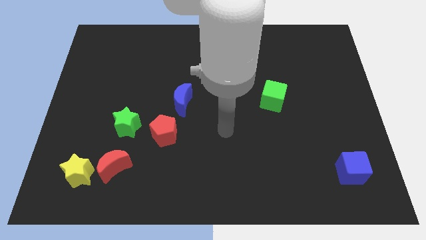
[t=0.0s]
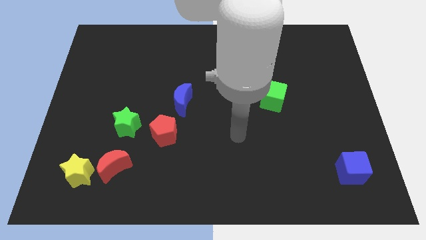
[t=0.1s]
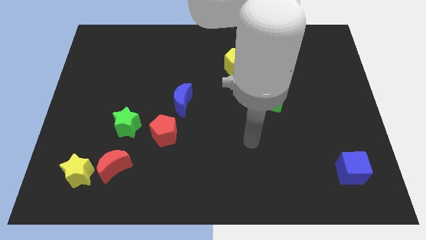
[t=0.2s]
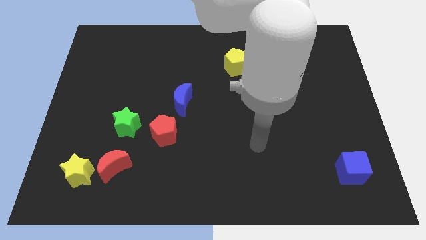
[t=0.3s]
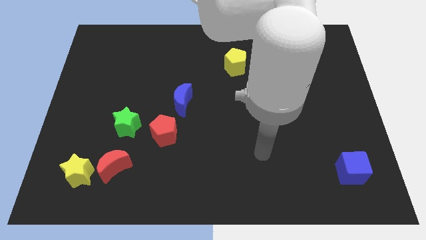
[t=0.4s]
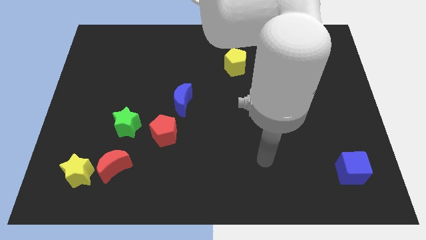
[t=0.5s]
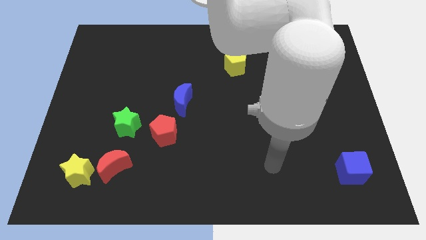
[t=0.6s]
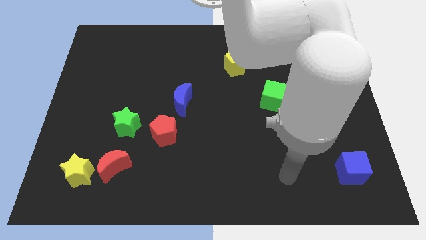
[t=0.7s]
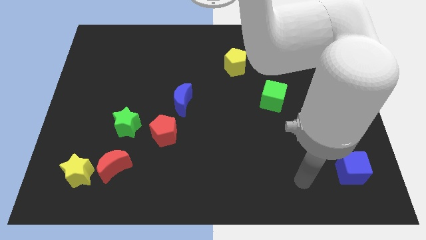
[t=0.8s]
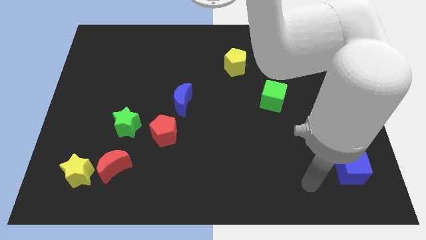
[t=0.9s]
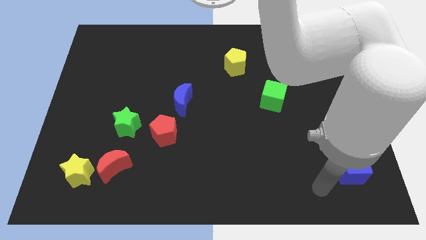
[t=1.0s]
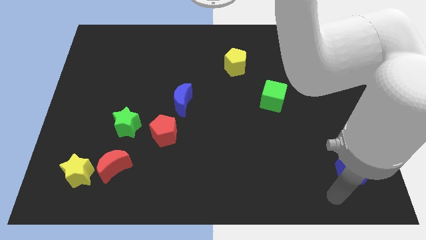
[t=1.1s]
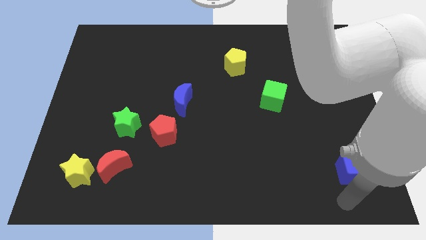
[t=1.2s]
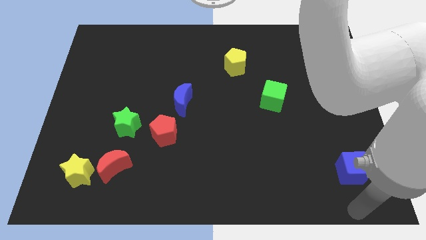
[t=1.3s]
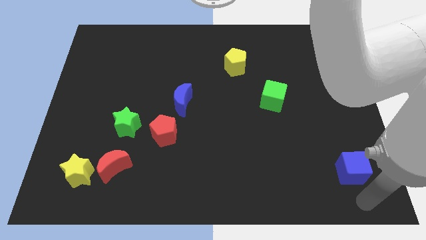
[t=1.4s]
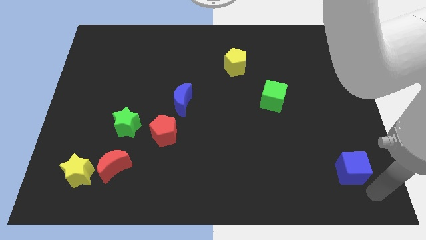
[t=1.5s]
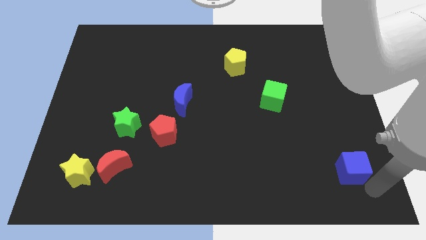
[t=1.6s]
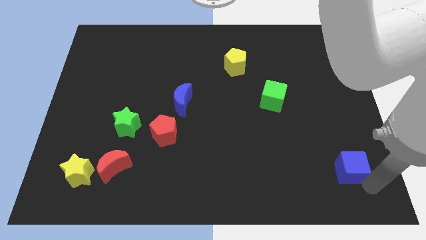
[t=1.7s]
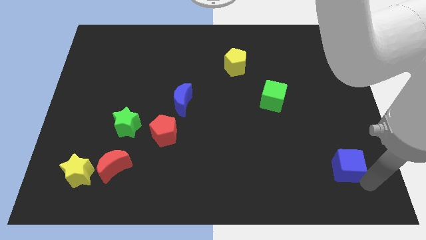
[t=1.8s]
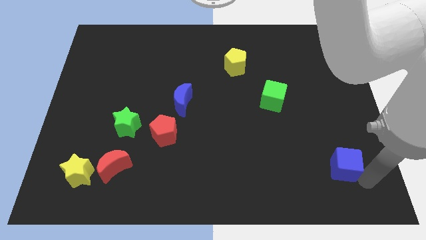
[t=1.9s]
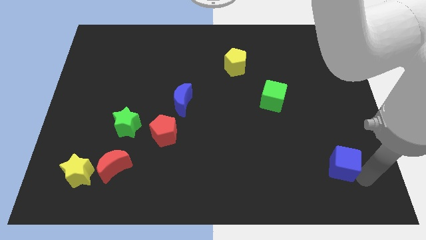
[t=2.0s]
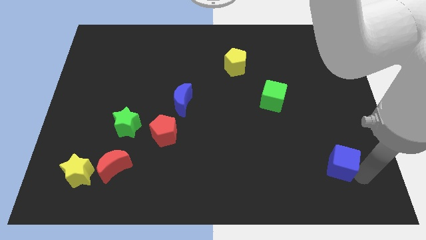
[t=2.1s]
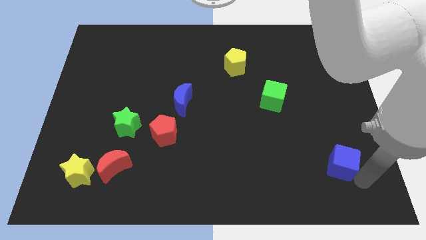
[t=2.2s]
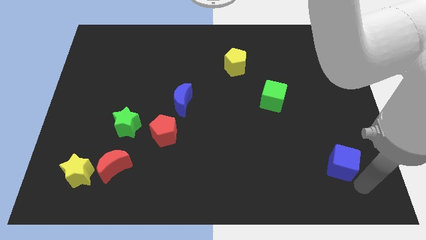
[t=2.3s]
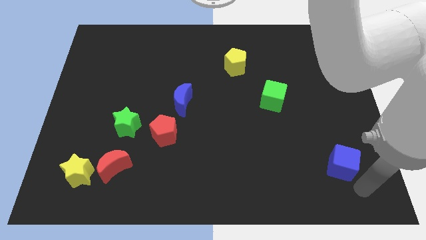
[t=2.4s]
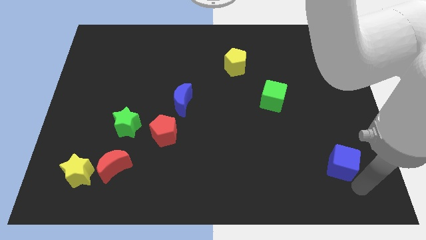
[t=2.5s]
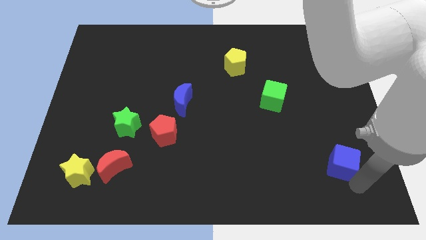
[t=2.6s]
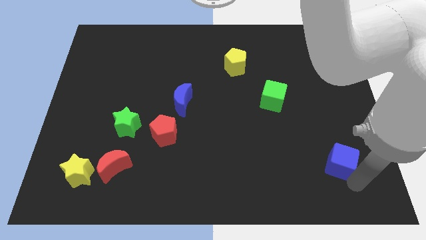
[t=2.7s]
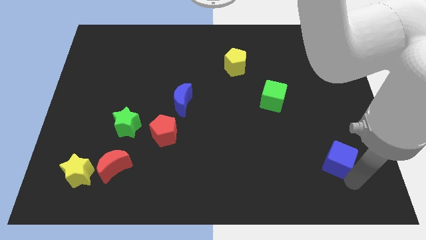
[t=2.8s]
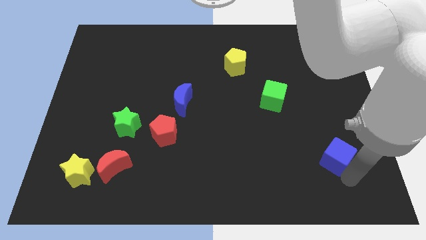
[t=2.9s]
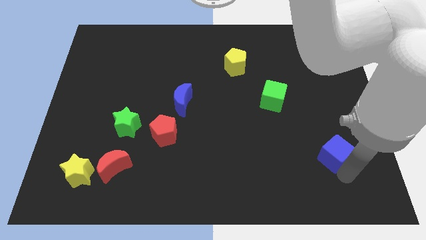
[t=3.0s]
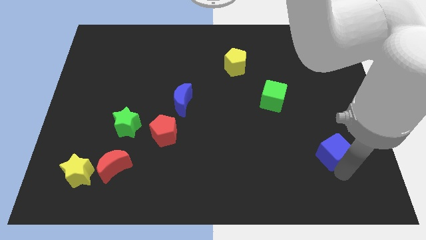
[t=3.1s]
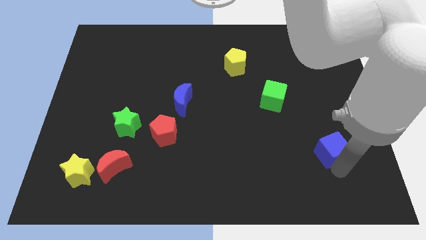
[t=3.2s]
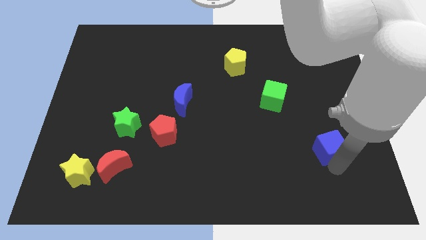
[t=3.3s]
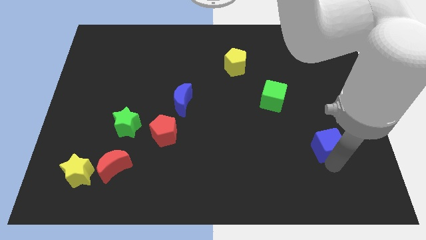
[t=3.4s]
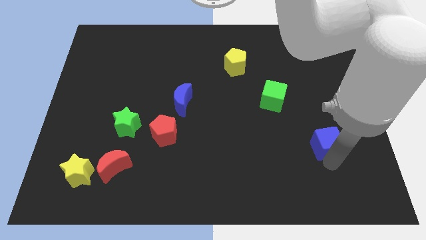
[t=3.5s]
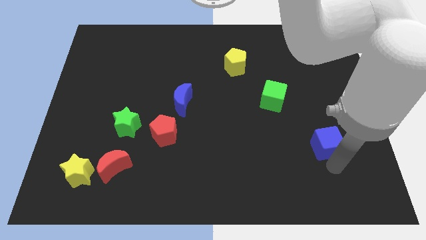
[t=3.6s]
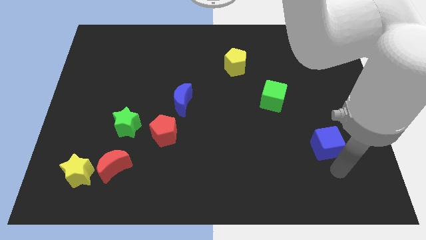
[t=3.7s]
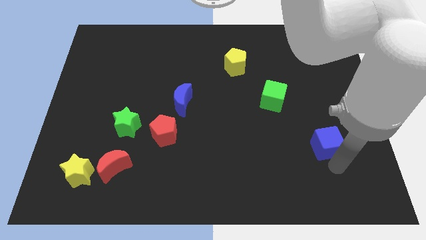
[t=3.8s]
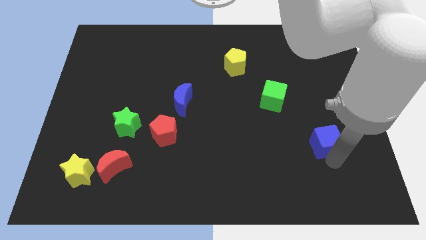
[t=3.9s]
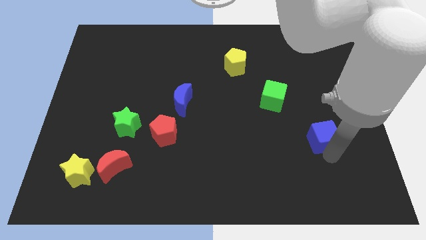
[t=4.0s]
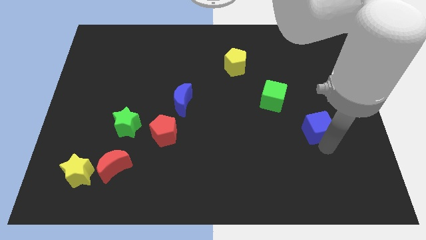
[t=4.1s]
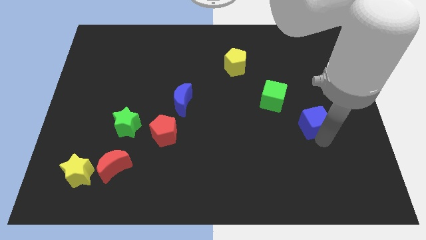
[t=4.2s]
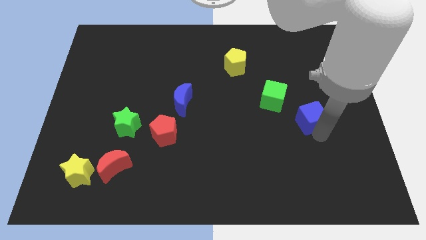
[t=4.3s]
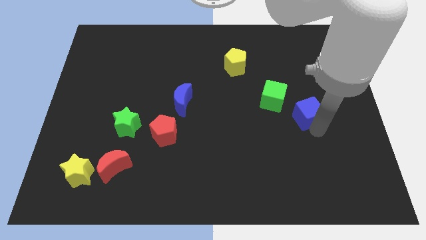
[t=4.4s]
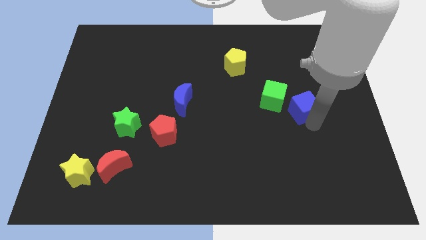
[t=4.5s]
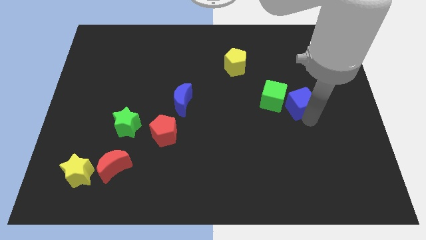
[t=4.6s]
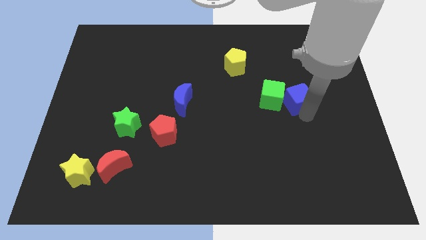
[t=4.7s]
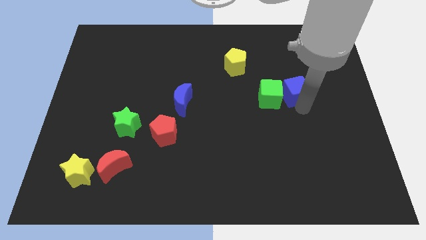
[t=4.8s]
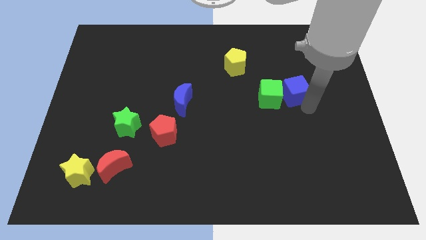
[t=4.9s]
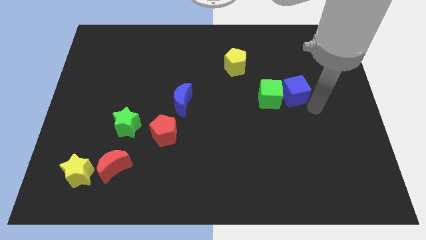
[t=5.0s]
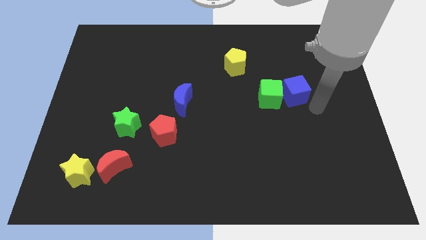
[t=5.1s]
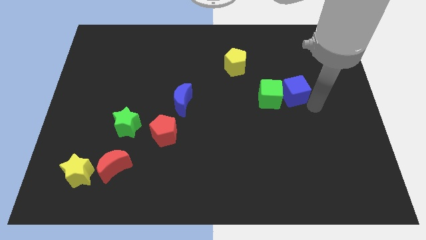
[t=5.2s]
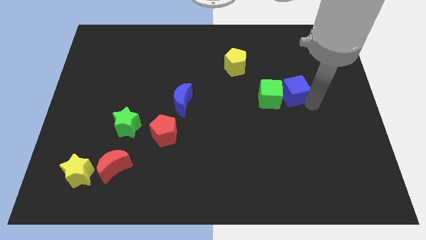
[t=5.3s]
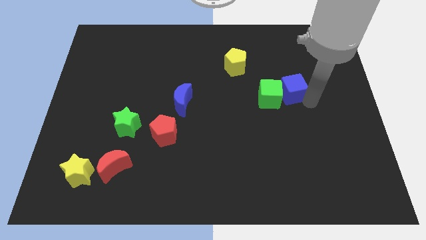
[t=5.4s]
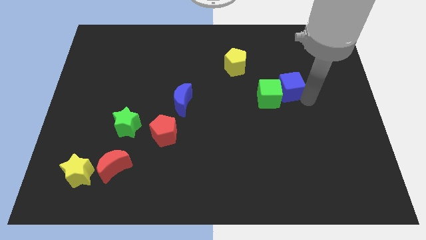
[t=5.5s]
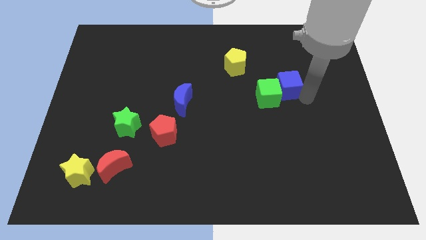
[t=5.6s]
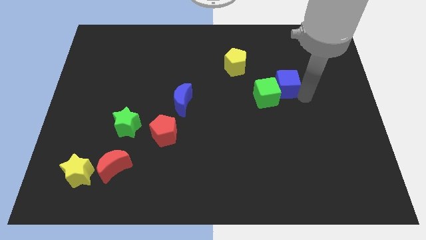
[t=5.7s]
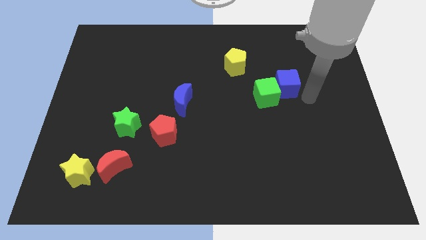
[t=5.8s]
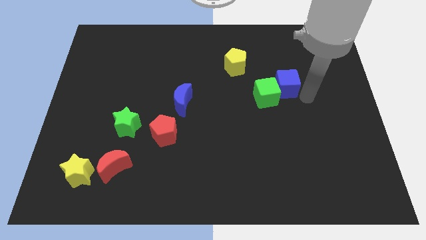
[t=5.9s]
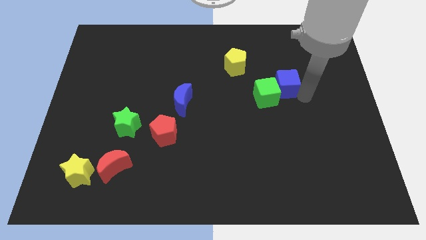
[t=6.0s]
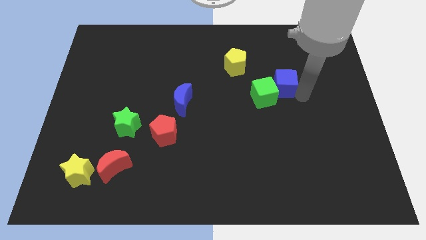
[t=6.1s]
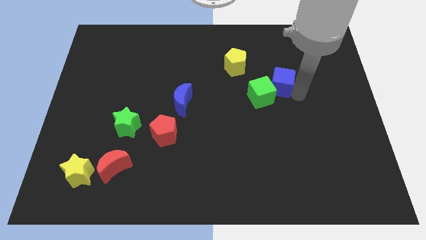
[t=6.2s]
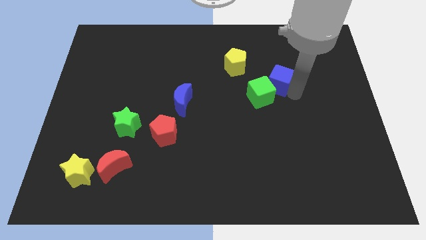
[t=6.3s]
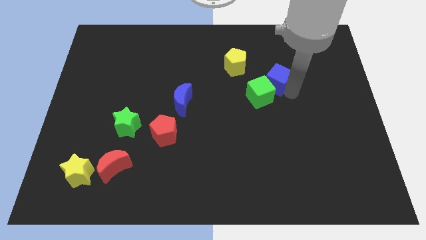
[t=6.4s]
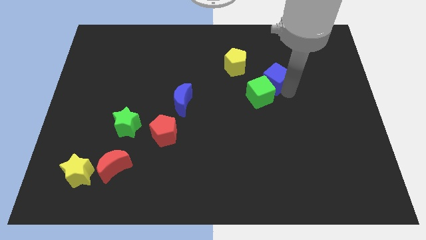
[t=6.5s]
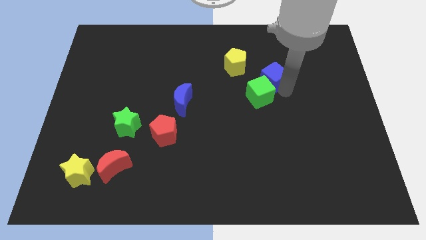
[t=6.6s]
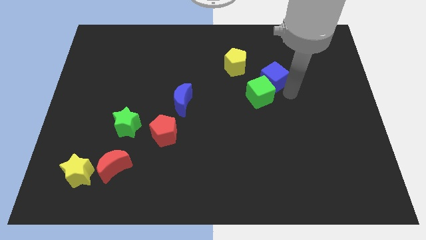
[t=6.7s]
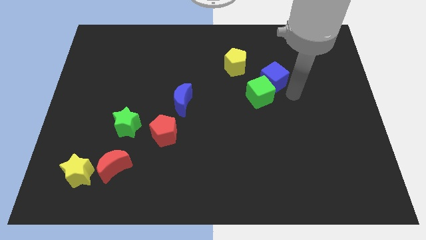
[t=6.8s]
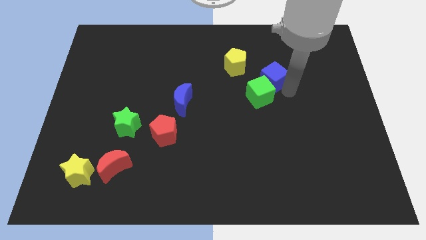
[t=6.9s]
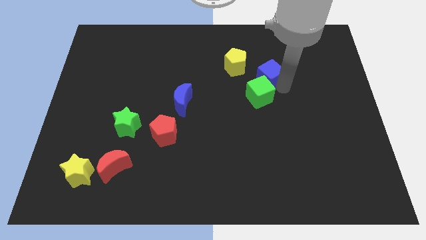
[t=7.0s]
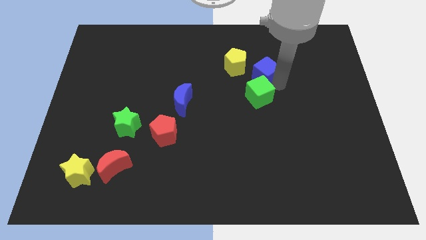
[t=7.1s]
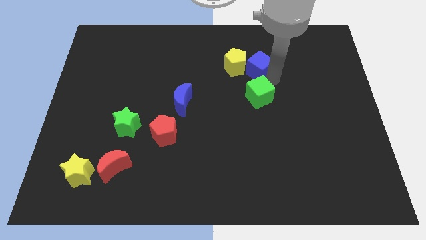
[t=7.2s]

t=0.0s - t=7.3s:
move the blue cube towards the yellow pentagon

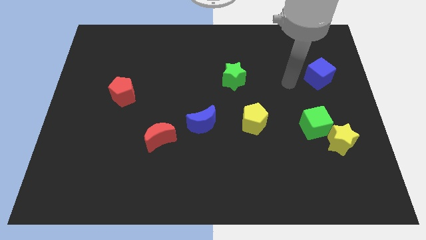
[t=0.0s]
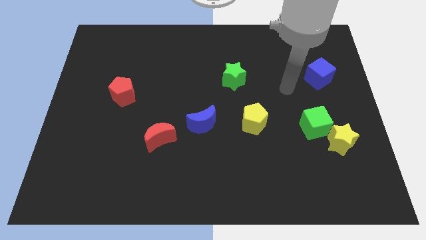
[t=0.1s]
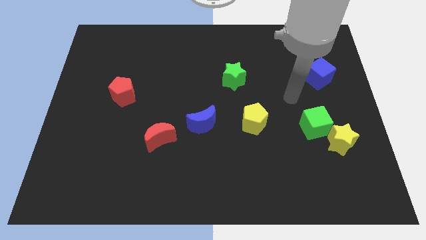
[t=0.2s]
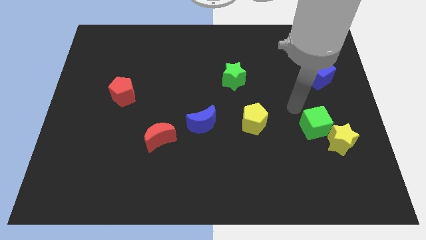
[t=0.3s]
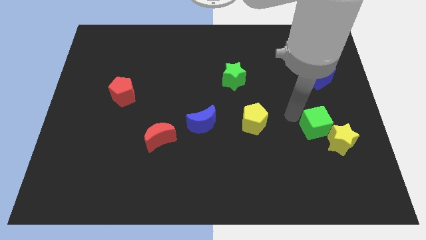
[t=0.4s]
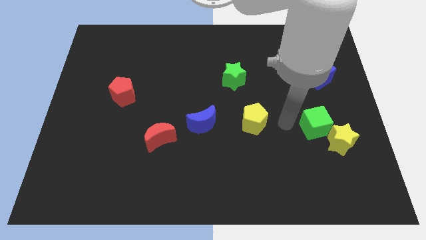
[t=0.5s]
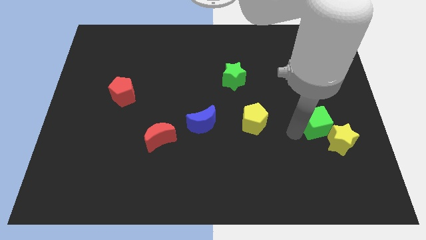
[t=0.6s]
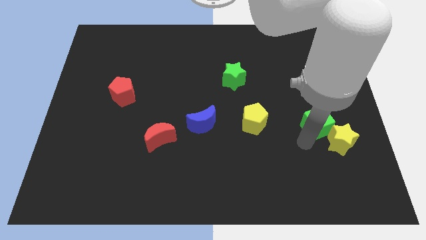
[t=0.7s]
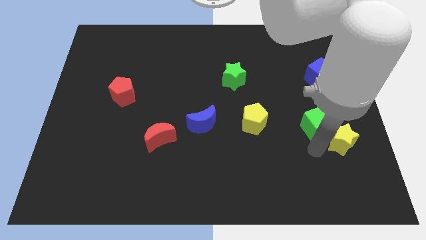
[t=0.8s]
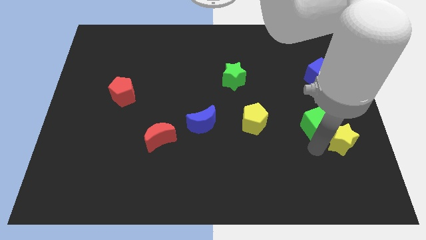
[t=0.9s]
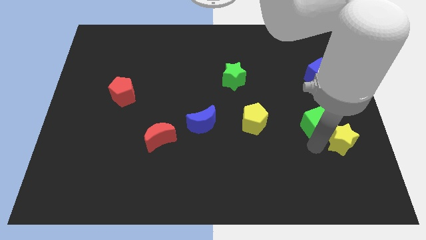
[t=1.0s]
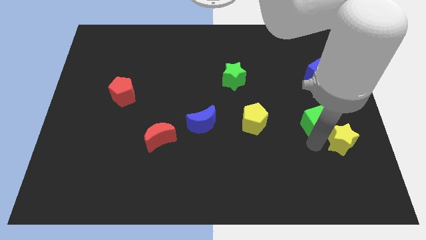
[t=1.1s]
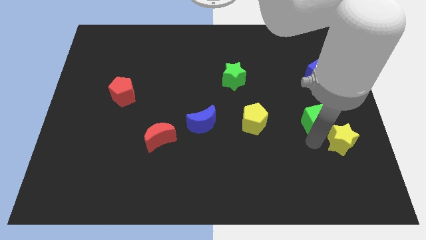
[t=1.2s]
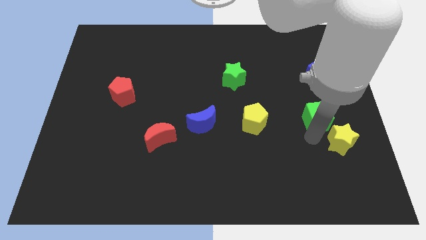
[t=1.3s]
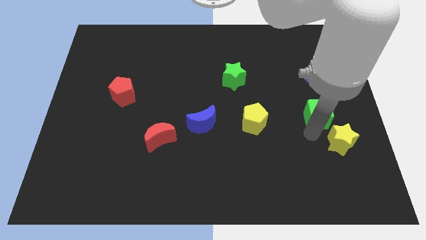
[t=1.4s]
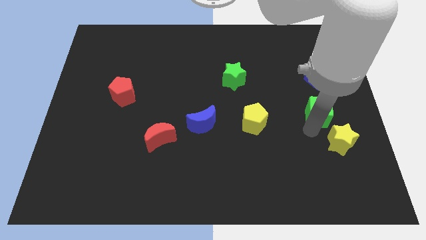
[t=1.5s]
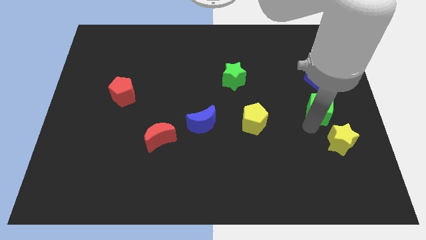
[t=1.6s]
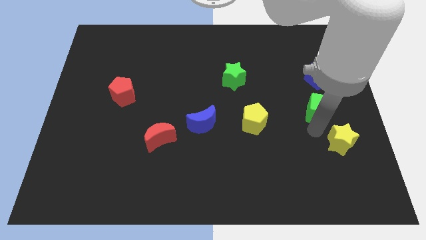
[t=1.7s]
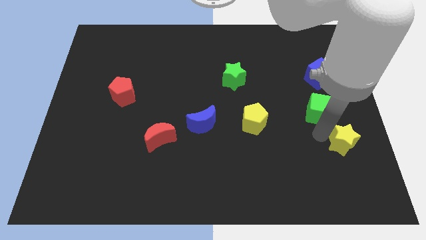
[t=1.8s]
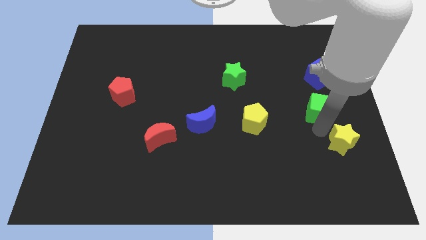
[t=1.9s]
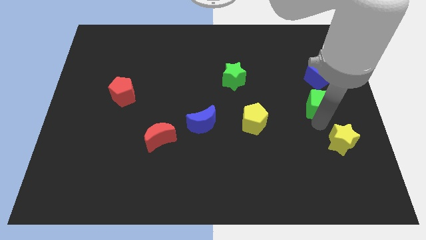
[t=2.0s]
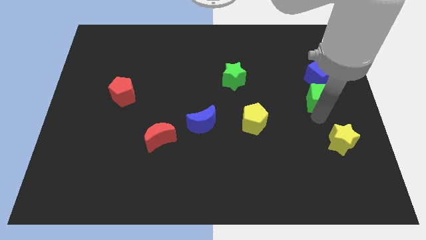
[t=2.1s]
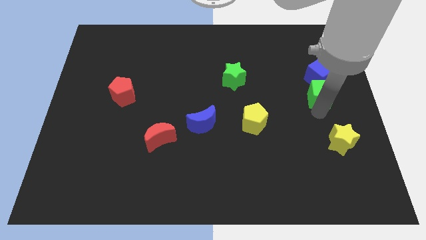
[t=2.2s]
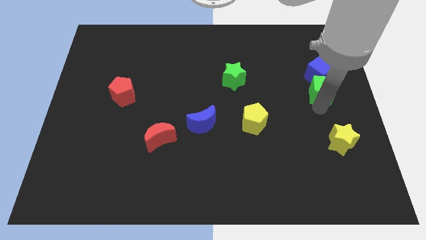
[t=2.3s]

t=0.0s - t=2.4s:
put the green cube to the blue cube
